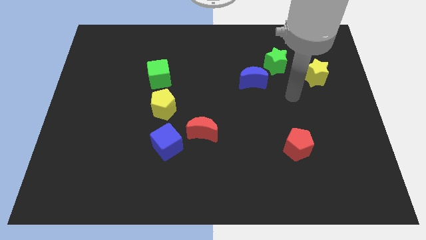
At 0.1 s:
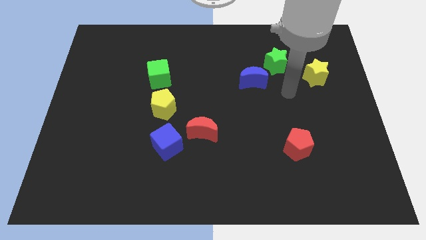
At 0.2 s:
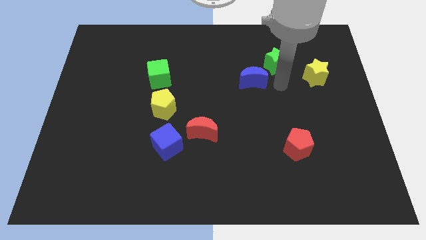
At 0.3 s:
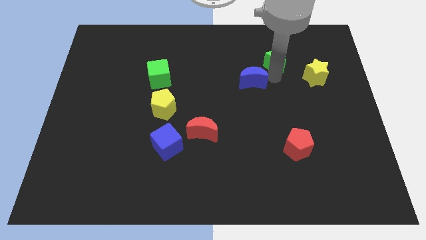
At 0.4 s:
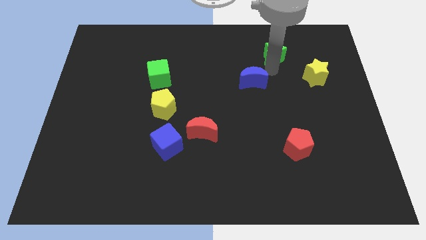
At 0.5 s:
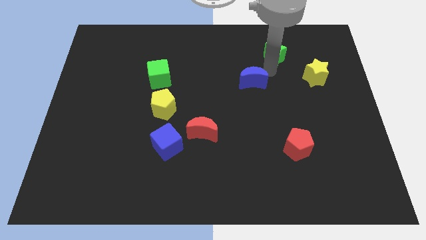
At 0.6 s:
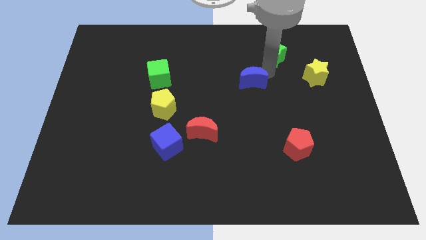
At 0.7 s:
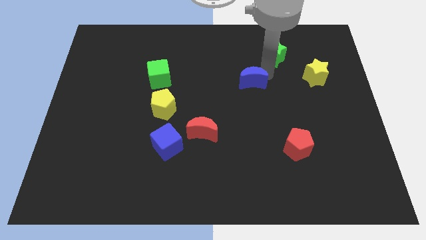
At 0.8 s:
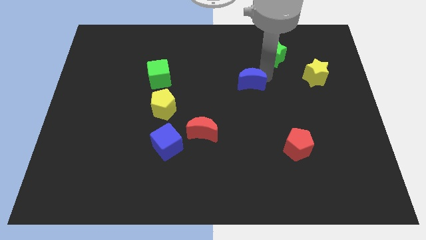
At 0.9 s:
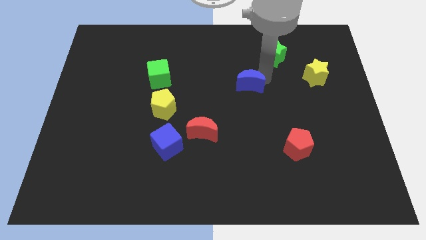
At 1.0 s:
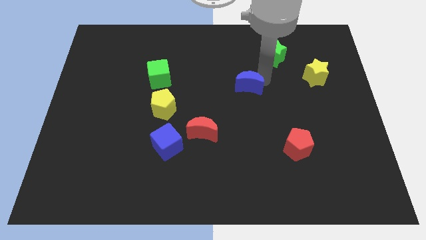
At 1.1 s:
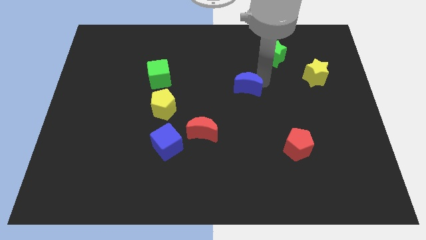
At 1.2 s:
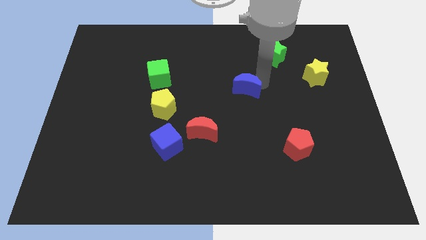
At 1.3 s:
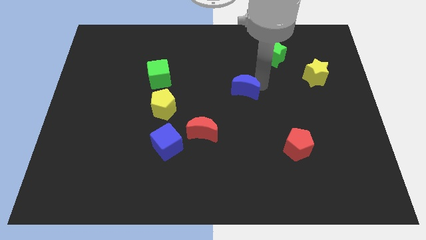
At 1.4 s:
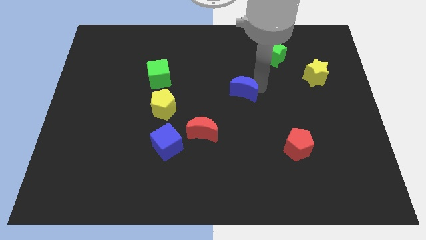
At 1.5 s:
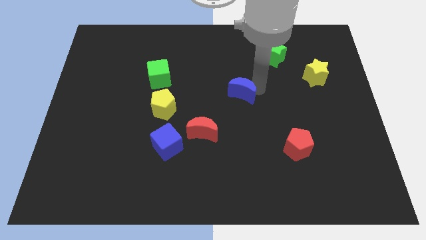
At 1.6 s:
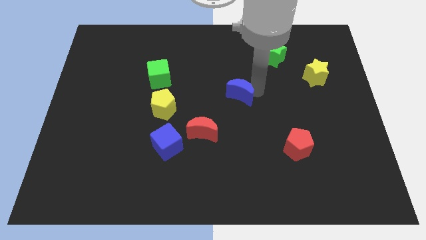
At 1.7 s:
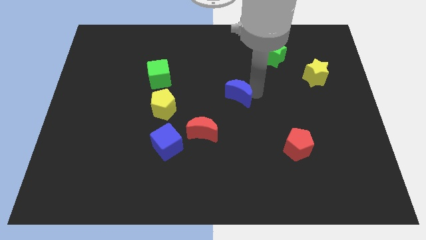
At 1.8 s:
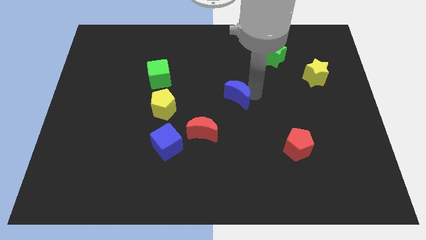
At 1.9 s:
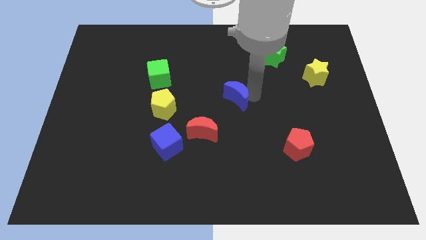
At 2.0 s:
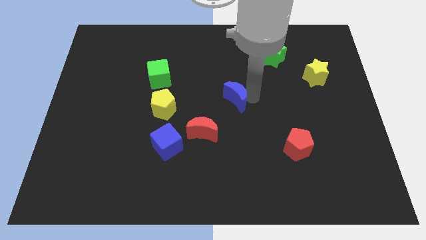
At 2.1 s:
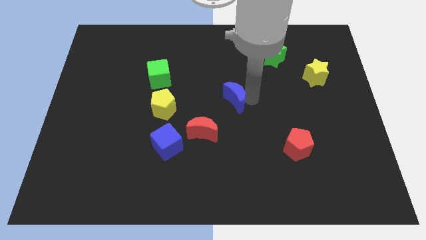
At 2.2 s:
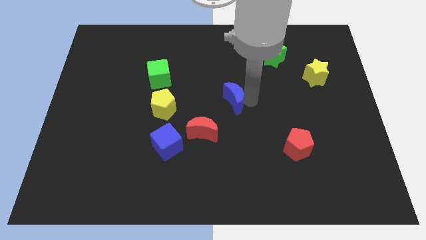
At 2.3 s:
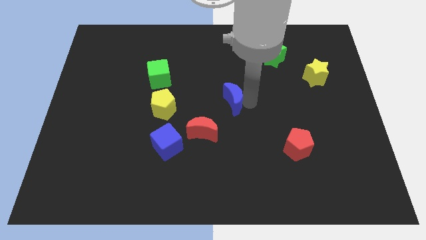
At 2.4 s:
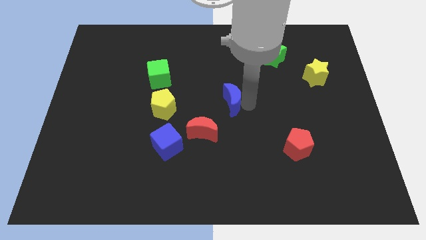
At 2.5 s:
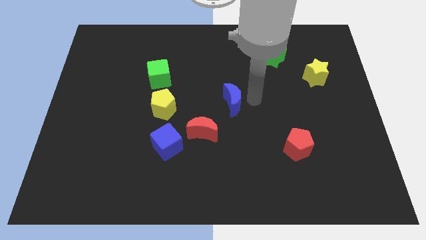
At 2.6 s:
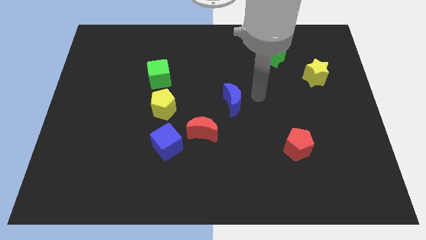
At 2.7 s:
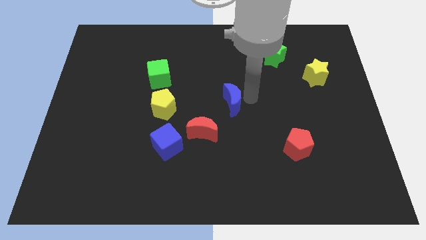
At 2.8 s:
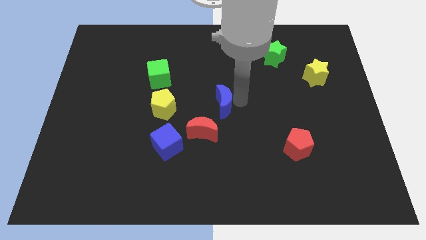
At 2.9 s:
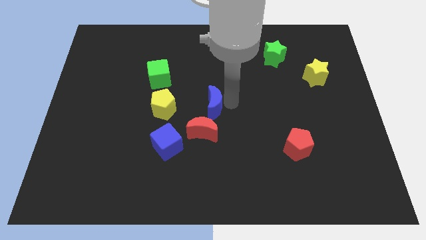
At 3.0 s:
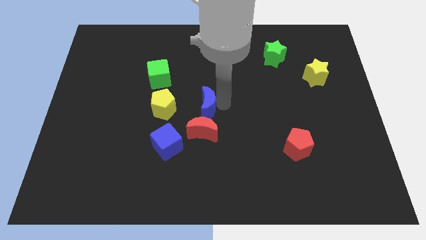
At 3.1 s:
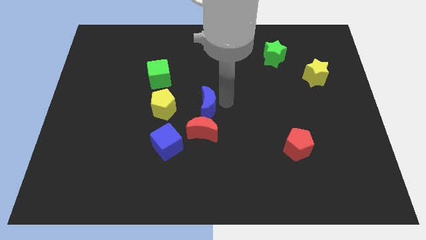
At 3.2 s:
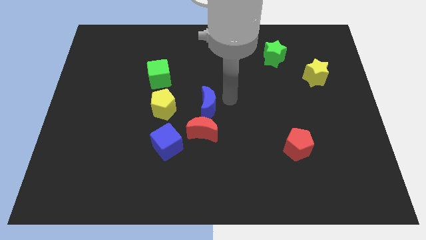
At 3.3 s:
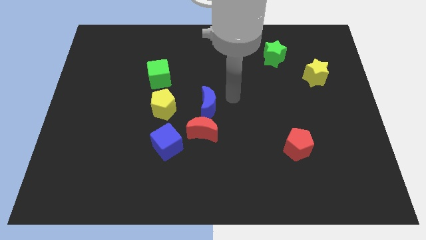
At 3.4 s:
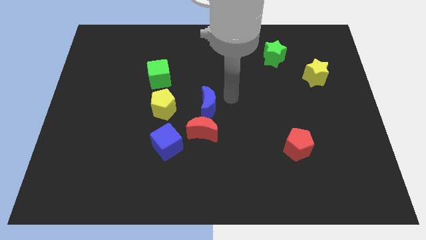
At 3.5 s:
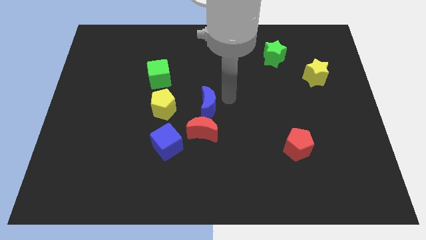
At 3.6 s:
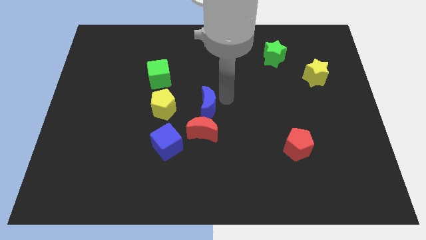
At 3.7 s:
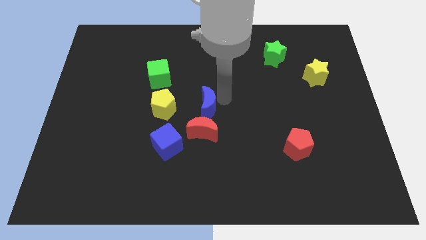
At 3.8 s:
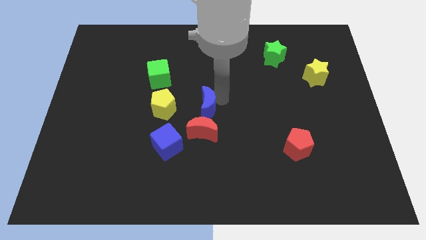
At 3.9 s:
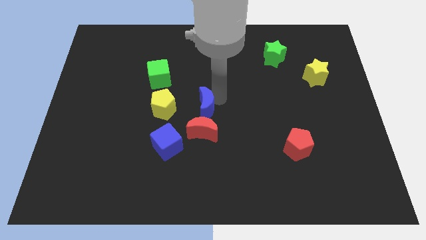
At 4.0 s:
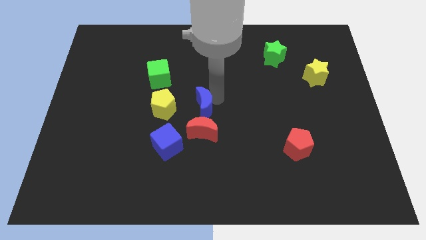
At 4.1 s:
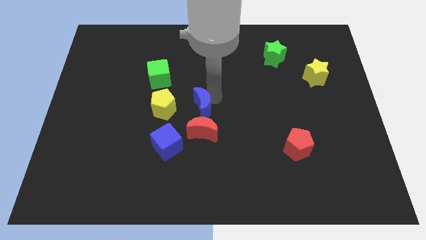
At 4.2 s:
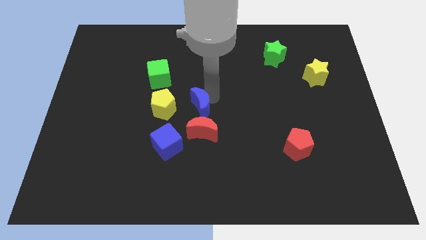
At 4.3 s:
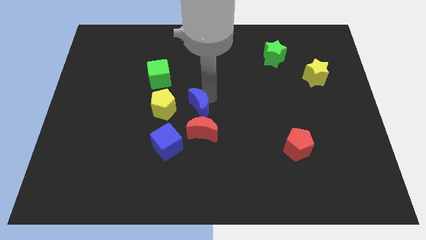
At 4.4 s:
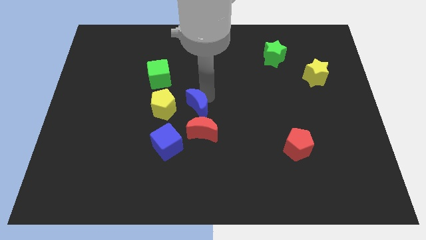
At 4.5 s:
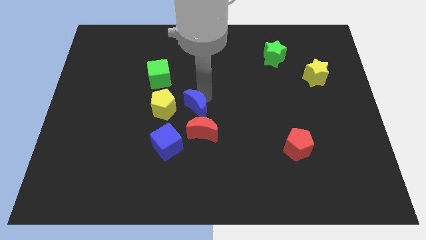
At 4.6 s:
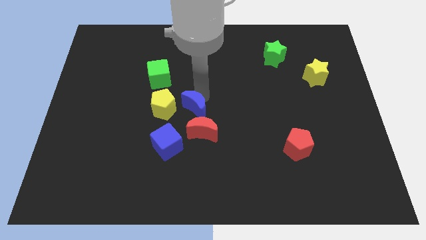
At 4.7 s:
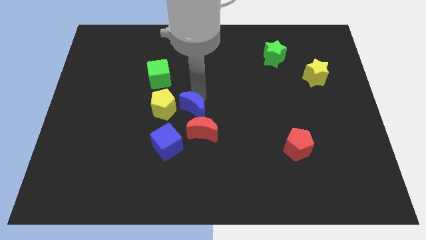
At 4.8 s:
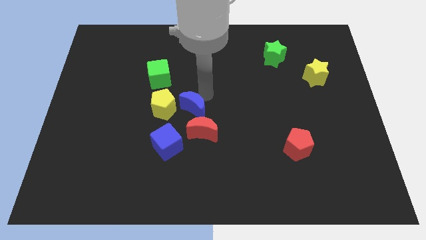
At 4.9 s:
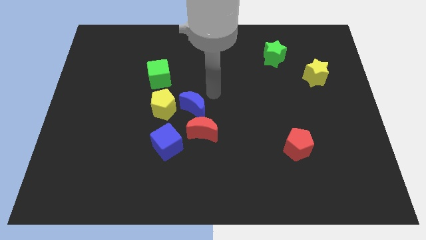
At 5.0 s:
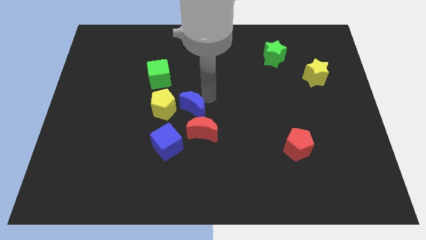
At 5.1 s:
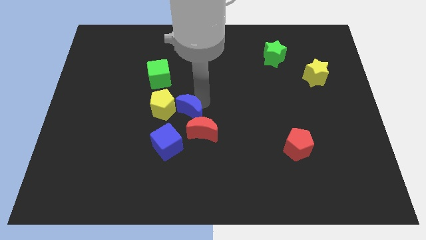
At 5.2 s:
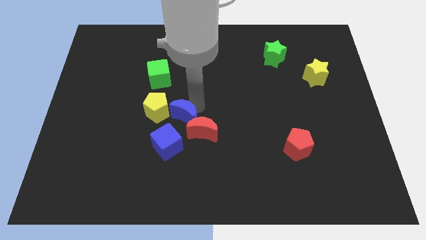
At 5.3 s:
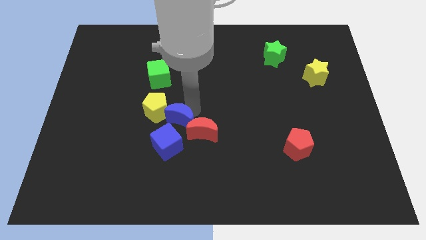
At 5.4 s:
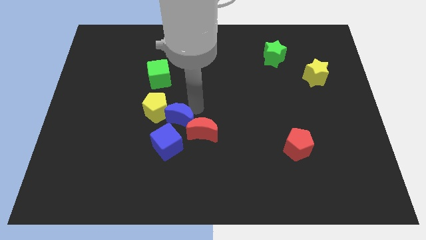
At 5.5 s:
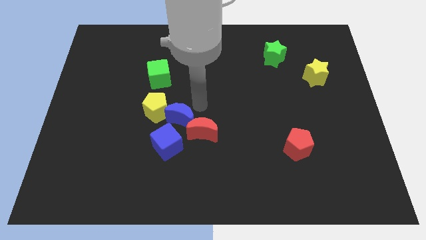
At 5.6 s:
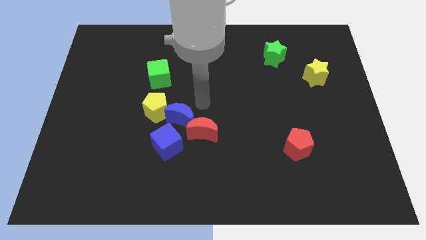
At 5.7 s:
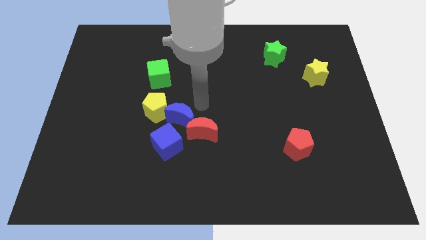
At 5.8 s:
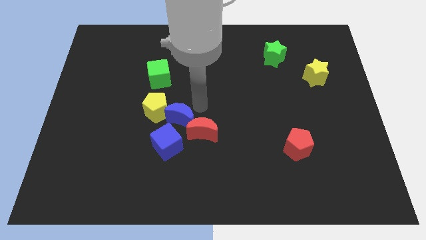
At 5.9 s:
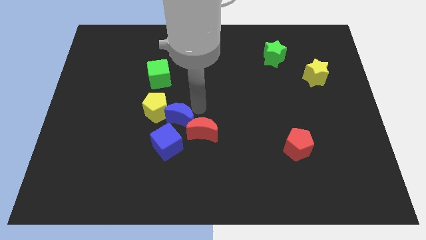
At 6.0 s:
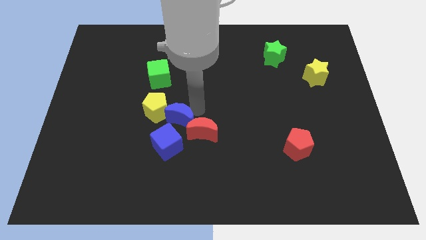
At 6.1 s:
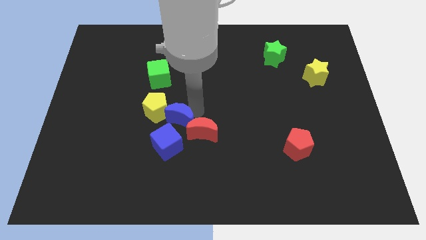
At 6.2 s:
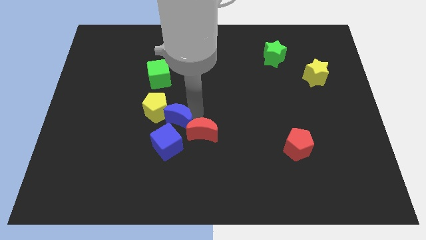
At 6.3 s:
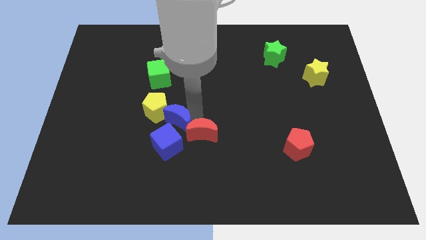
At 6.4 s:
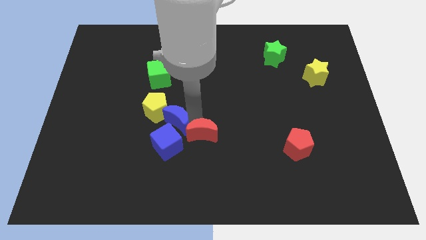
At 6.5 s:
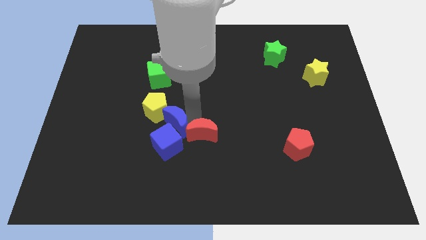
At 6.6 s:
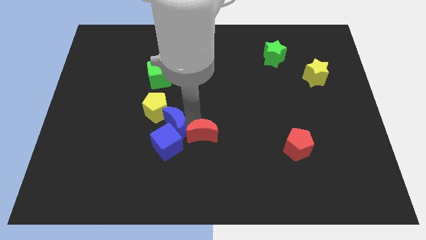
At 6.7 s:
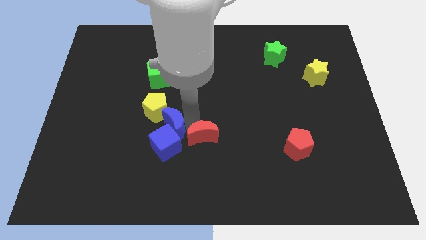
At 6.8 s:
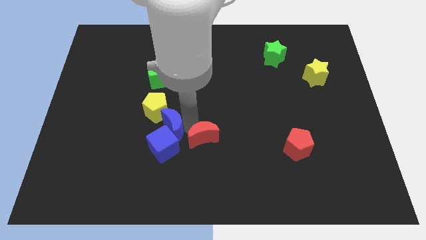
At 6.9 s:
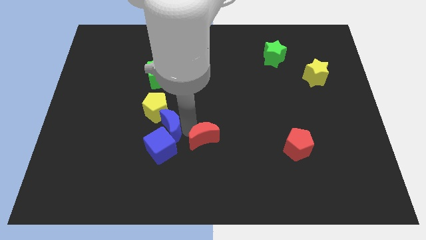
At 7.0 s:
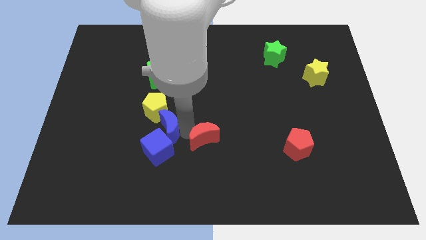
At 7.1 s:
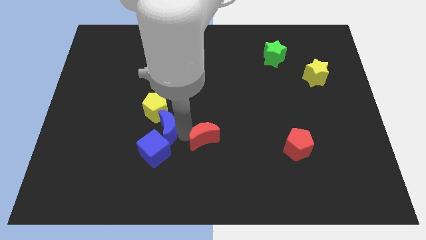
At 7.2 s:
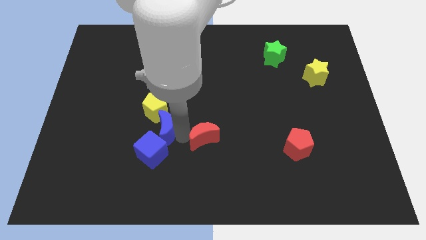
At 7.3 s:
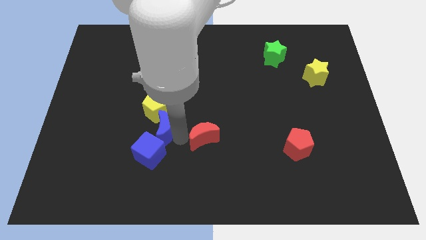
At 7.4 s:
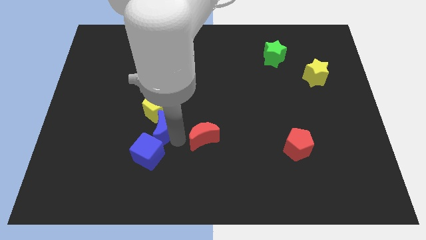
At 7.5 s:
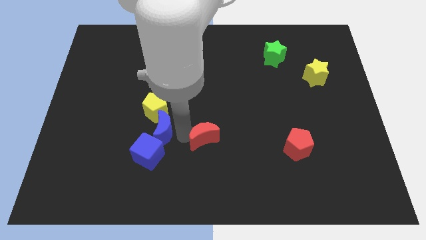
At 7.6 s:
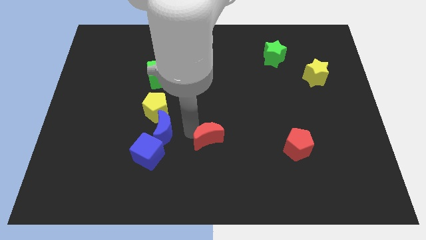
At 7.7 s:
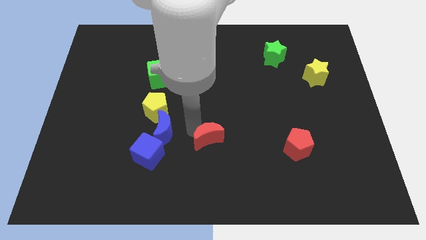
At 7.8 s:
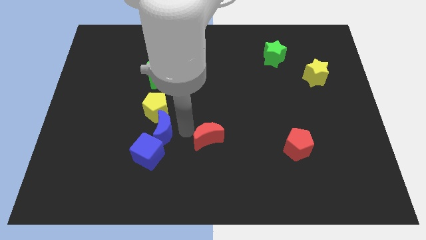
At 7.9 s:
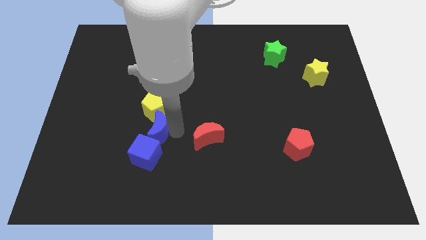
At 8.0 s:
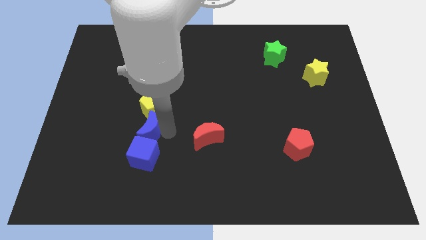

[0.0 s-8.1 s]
slide the blue moon diagonally up and to the left of the blue cube
